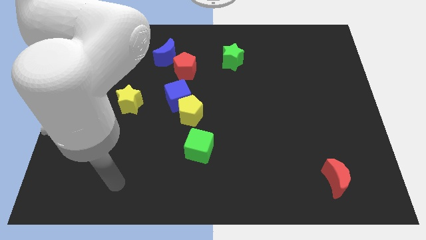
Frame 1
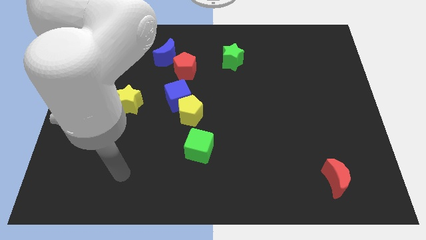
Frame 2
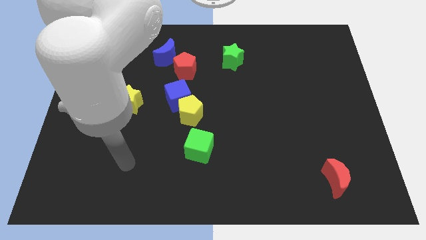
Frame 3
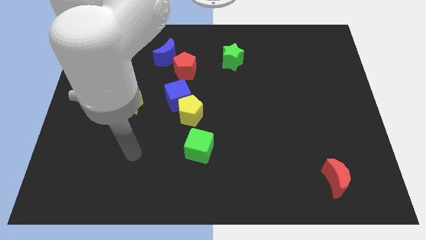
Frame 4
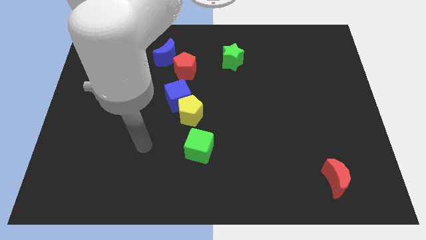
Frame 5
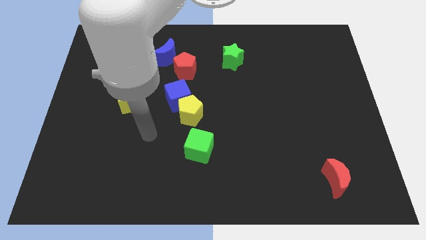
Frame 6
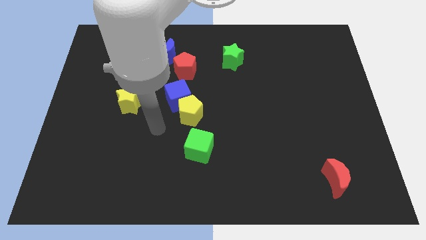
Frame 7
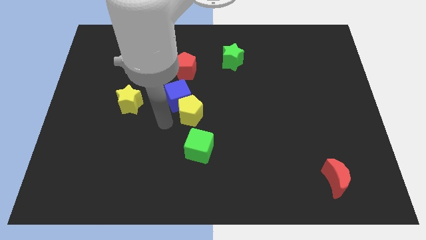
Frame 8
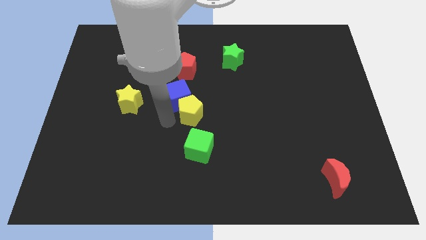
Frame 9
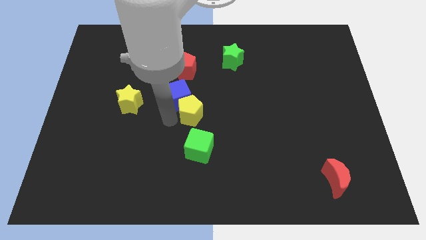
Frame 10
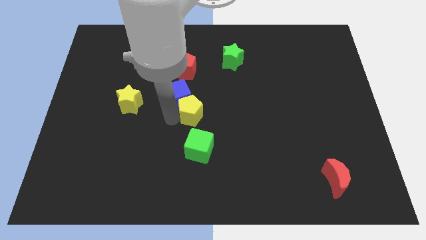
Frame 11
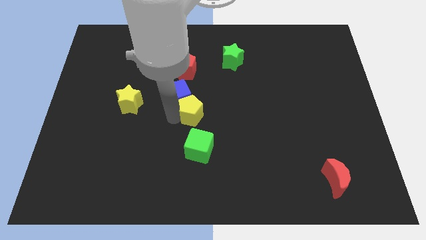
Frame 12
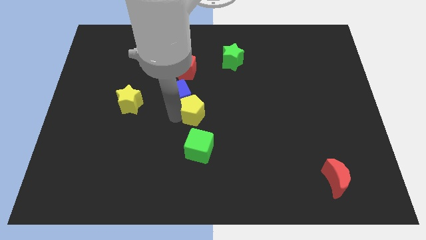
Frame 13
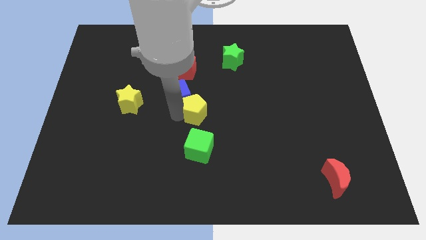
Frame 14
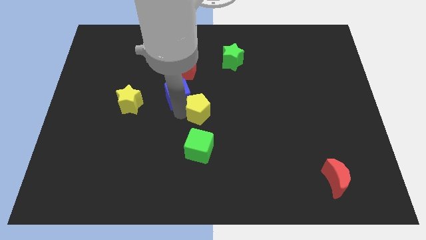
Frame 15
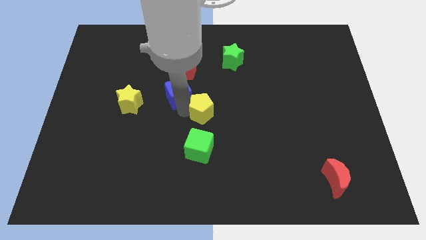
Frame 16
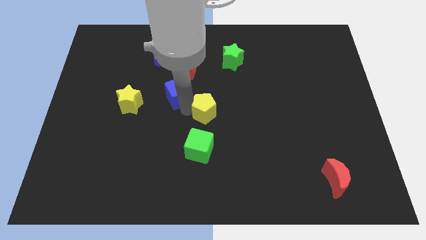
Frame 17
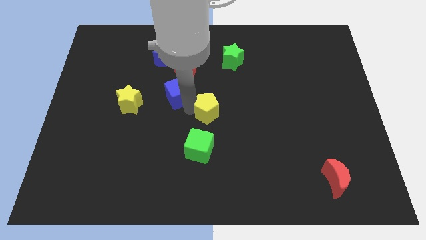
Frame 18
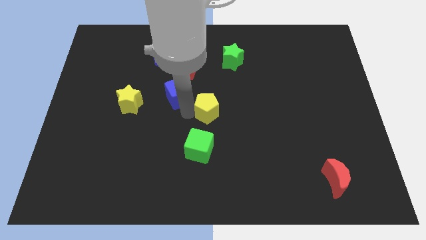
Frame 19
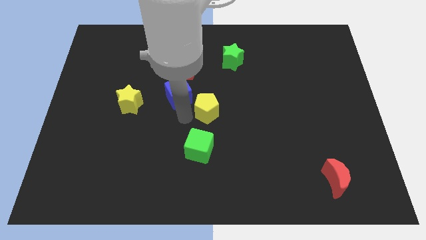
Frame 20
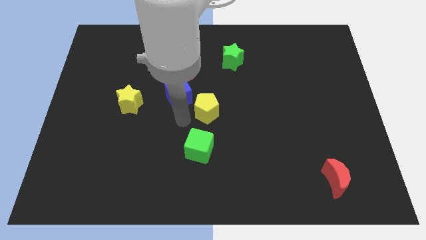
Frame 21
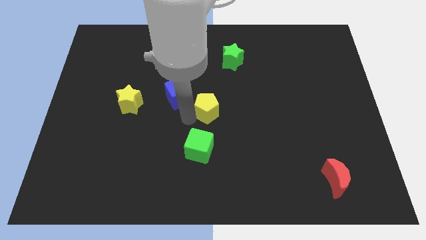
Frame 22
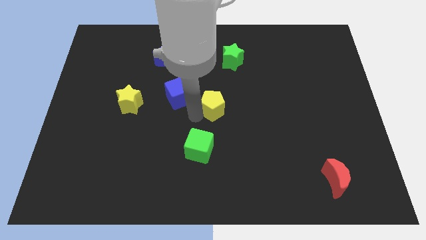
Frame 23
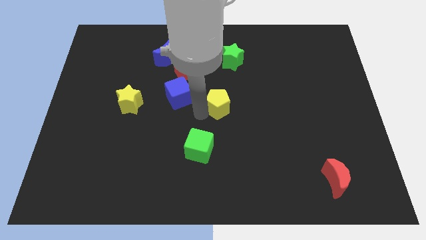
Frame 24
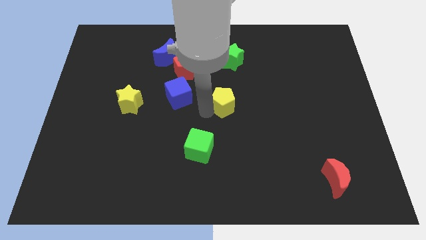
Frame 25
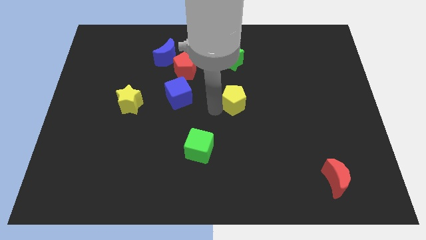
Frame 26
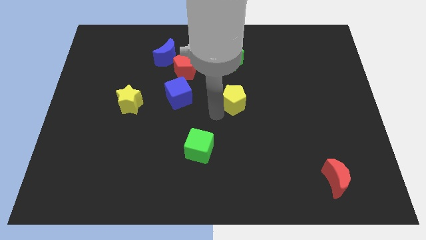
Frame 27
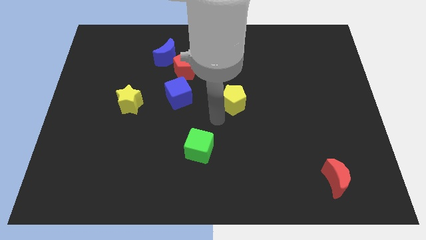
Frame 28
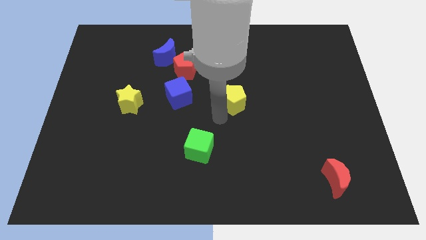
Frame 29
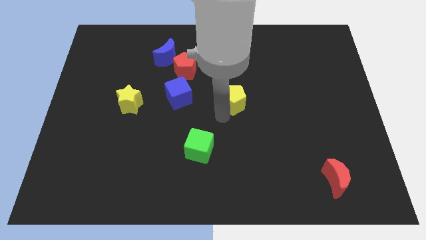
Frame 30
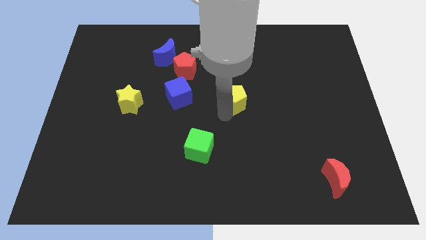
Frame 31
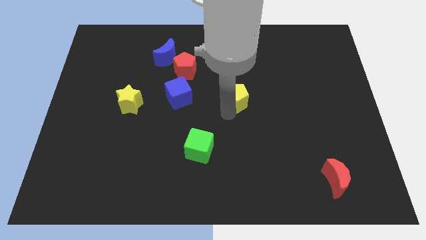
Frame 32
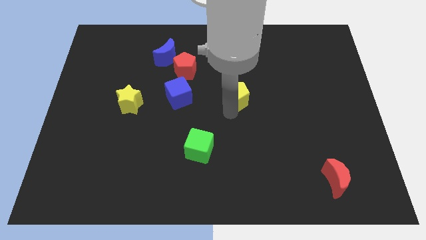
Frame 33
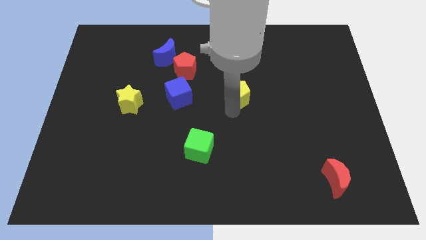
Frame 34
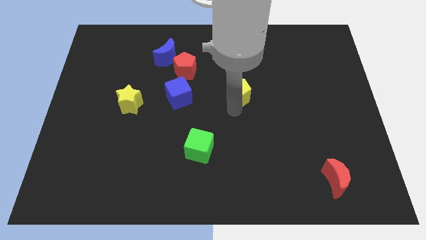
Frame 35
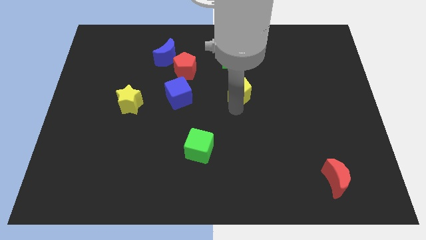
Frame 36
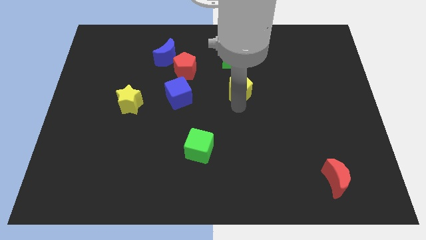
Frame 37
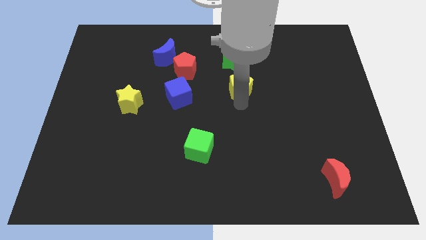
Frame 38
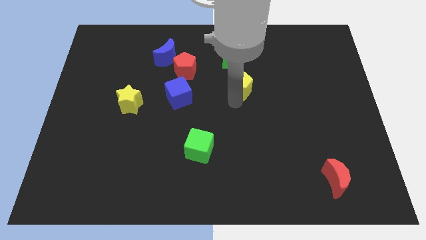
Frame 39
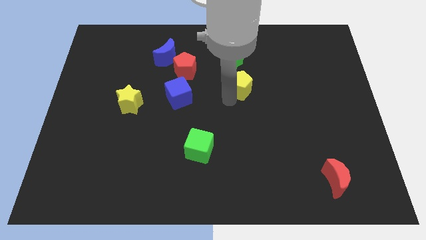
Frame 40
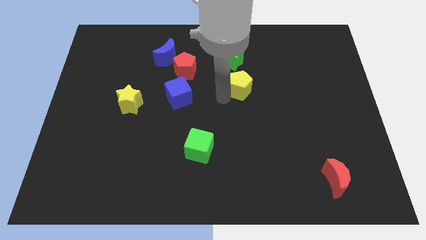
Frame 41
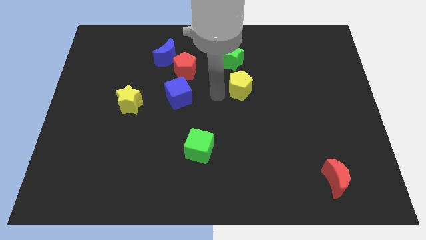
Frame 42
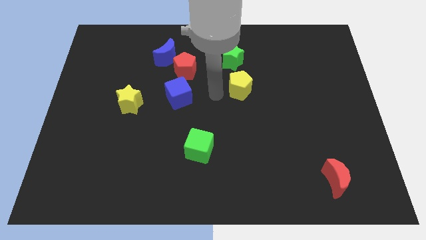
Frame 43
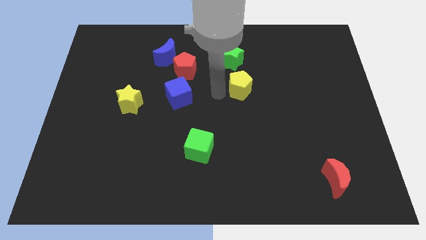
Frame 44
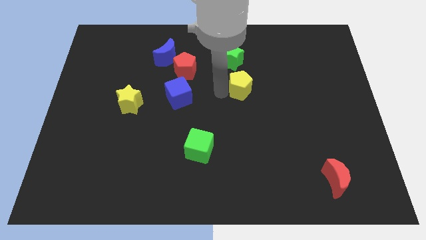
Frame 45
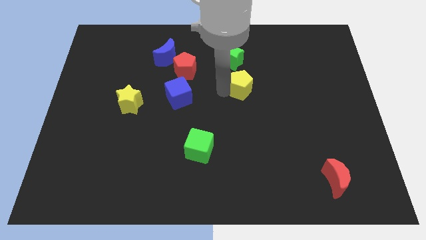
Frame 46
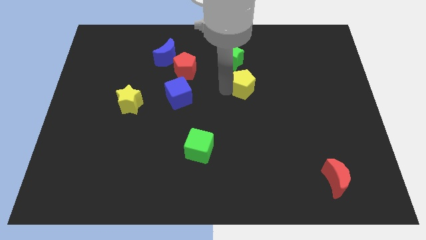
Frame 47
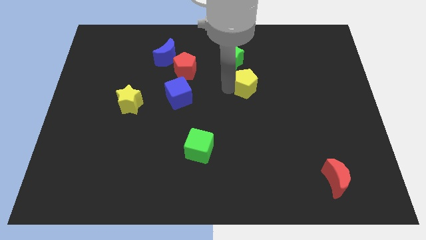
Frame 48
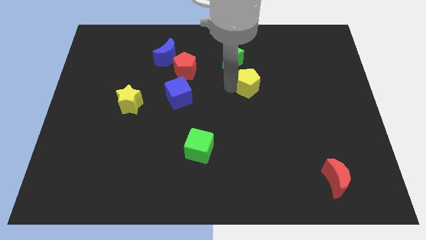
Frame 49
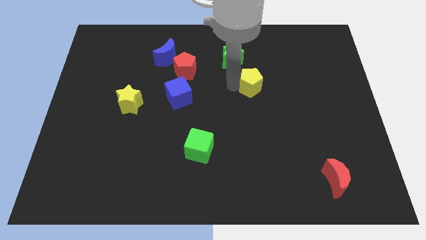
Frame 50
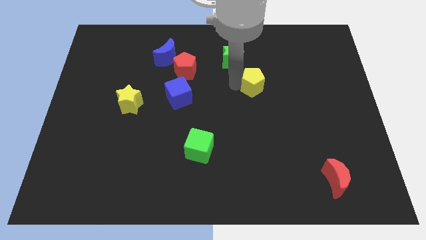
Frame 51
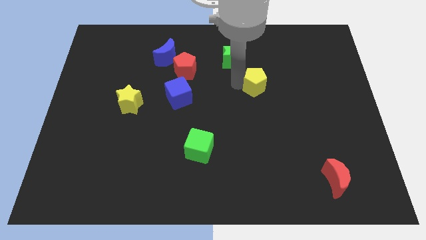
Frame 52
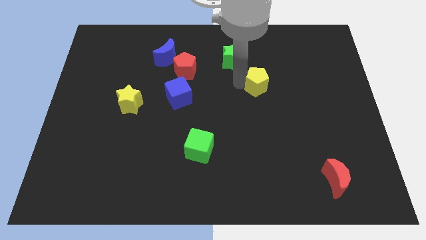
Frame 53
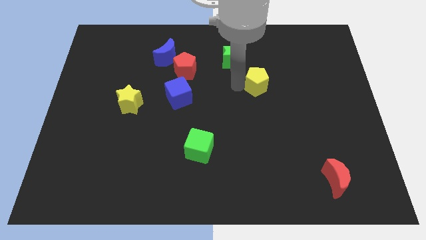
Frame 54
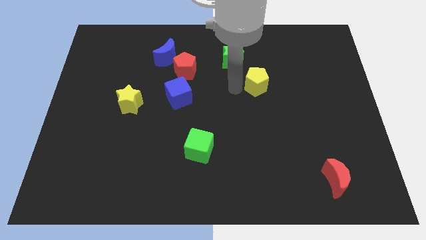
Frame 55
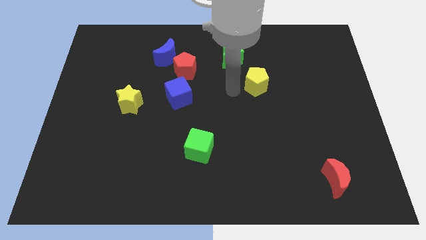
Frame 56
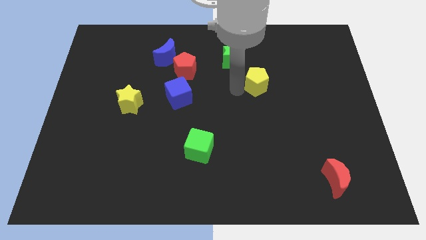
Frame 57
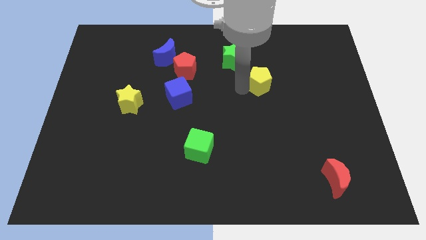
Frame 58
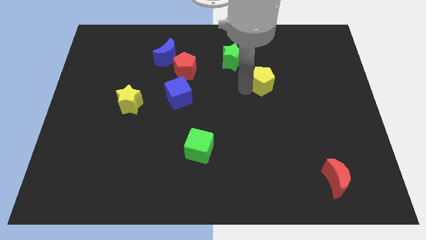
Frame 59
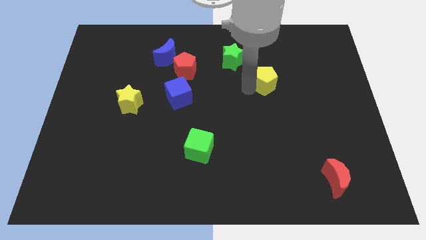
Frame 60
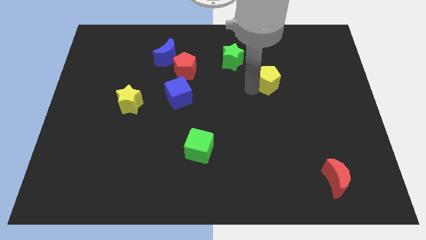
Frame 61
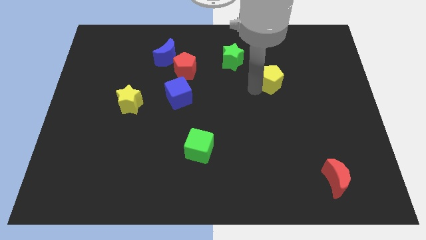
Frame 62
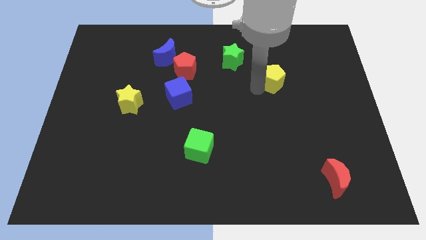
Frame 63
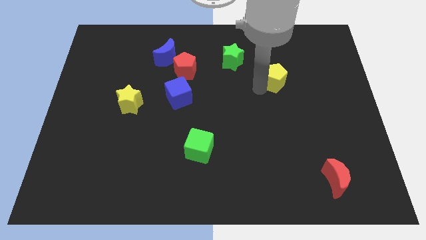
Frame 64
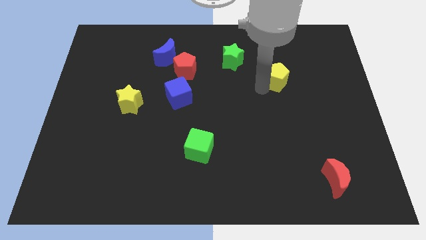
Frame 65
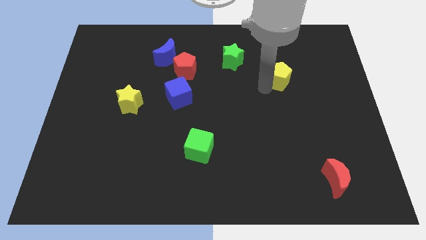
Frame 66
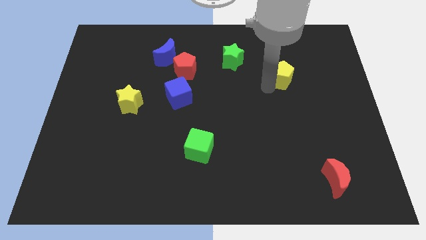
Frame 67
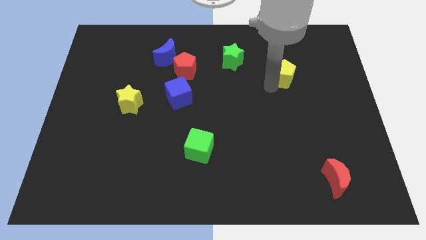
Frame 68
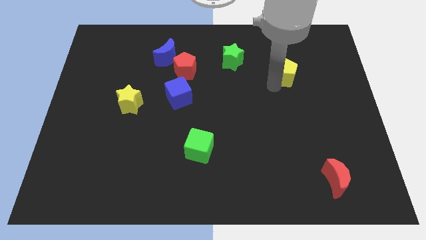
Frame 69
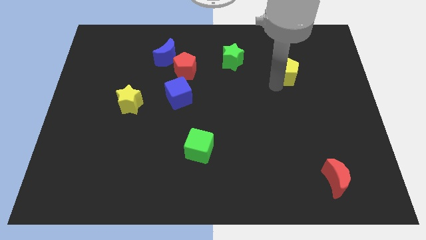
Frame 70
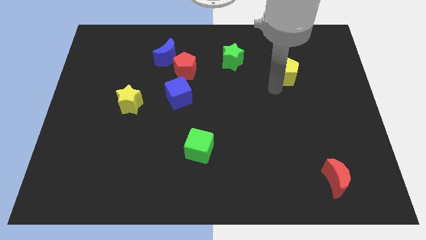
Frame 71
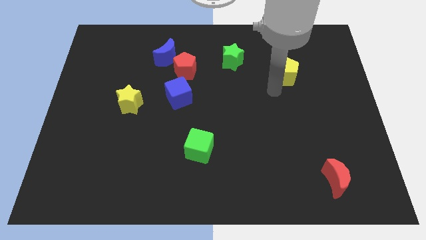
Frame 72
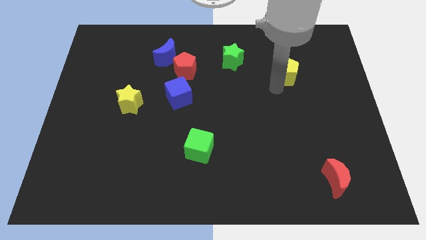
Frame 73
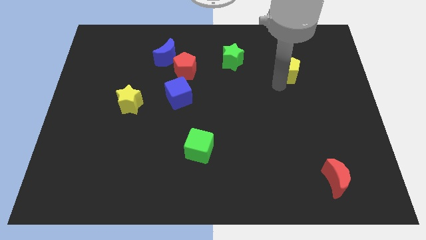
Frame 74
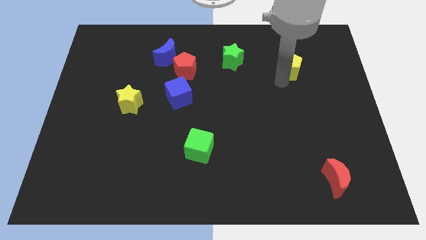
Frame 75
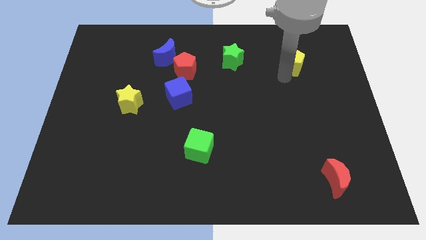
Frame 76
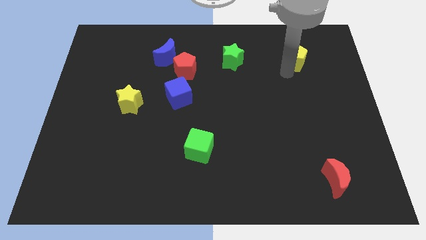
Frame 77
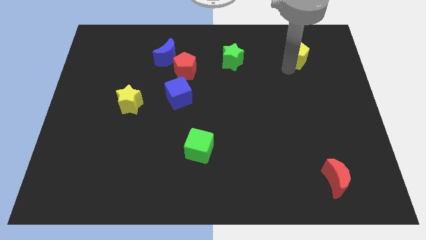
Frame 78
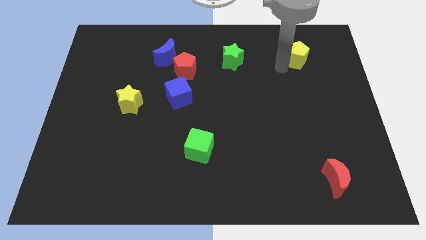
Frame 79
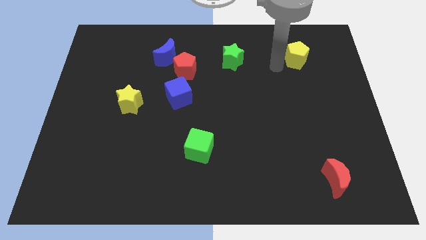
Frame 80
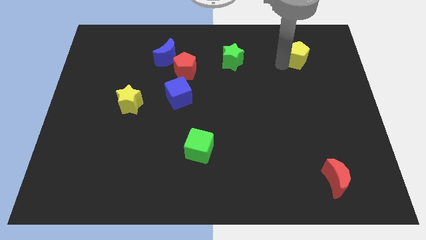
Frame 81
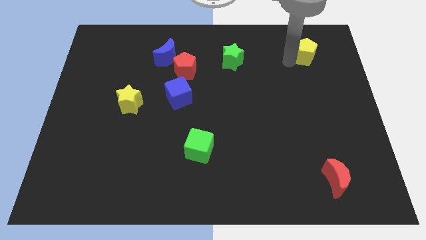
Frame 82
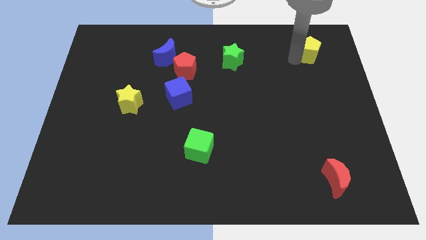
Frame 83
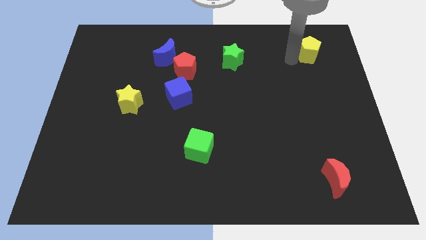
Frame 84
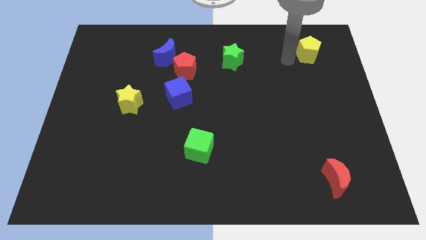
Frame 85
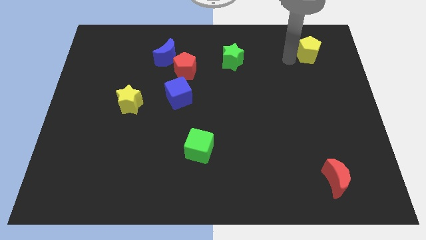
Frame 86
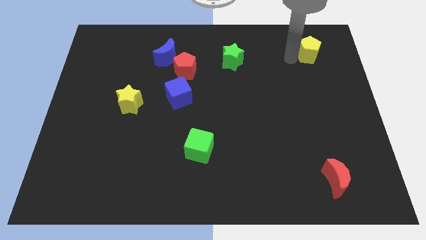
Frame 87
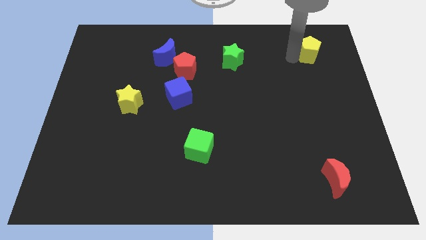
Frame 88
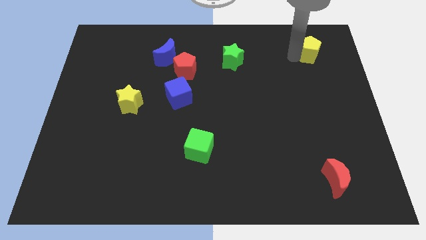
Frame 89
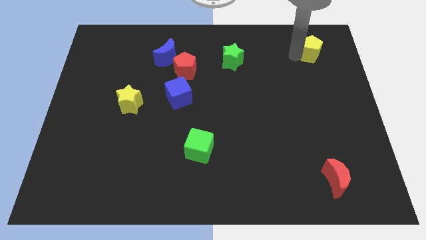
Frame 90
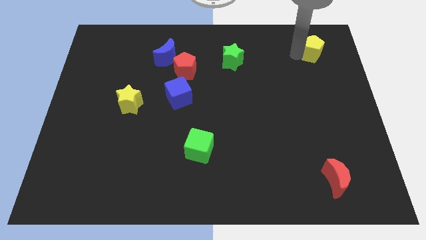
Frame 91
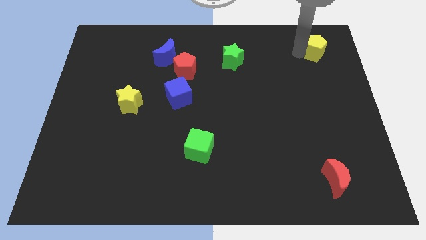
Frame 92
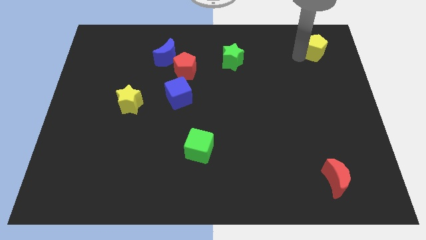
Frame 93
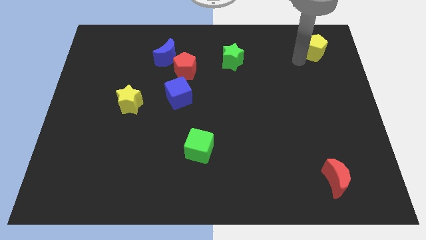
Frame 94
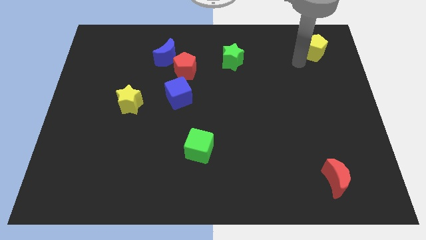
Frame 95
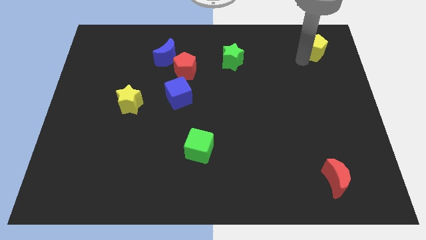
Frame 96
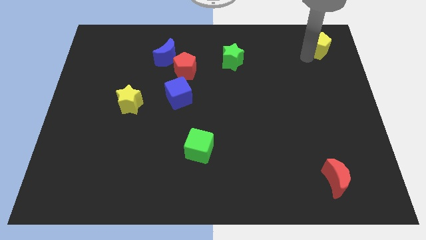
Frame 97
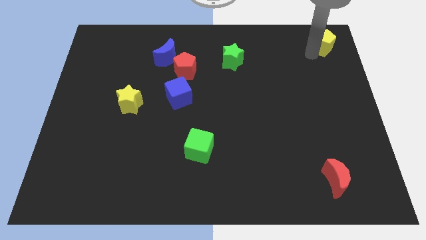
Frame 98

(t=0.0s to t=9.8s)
push the yellow pentagon to the top right
